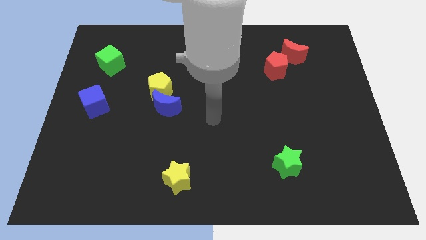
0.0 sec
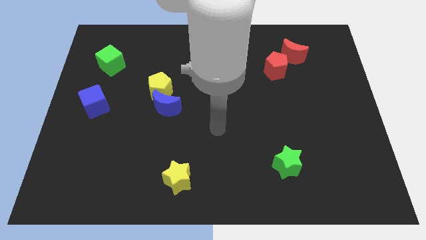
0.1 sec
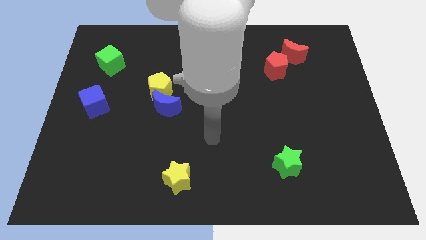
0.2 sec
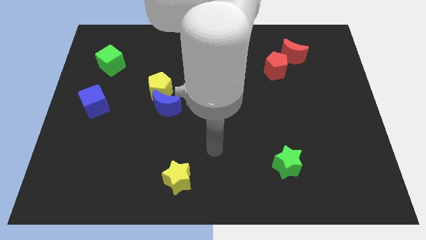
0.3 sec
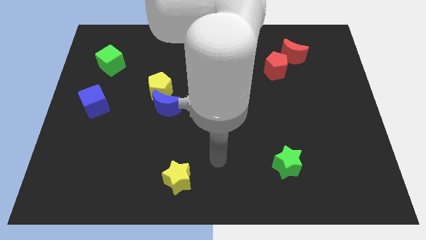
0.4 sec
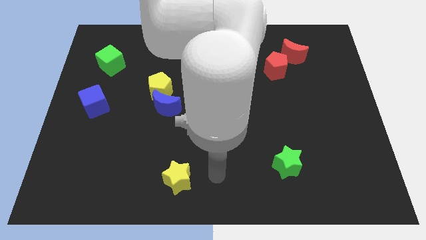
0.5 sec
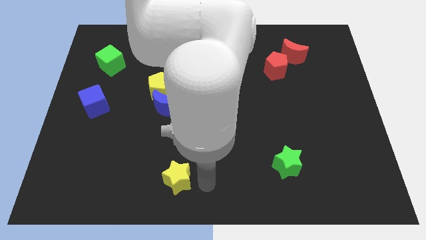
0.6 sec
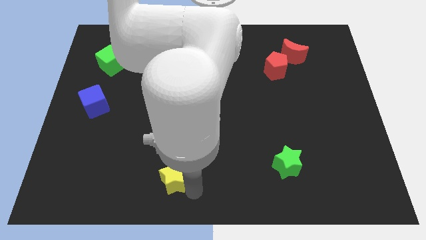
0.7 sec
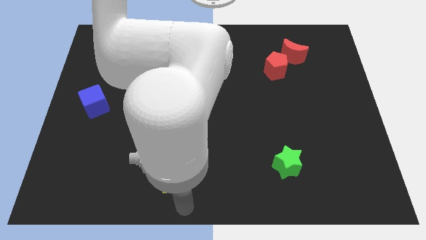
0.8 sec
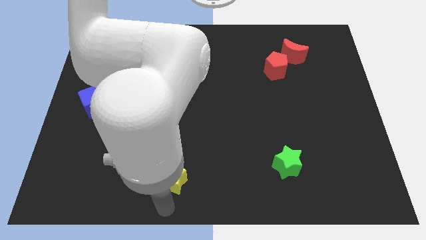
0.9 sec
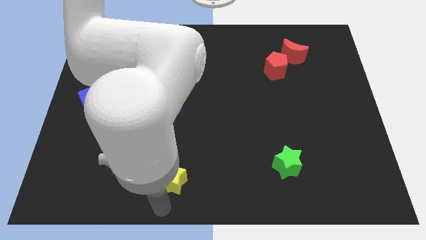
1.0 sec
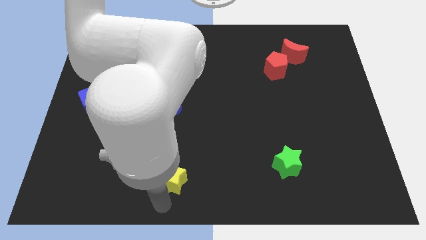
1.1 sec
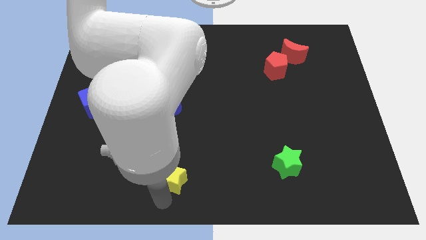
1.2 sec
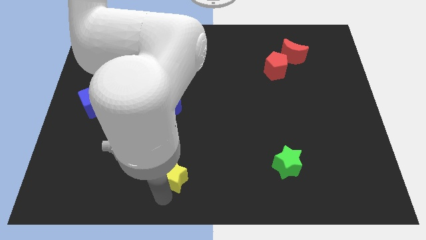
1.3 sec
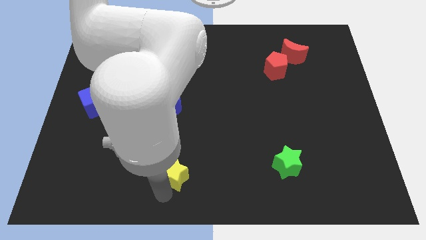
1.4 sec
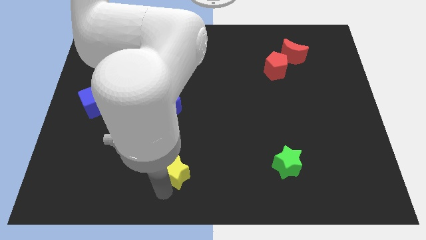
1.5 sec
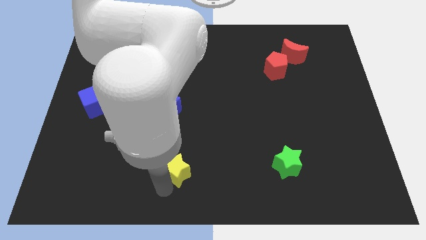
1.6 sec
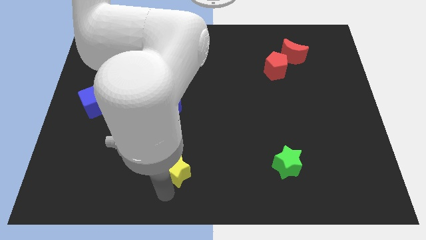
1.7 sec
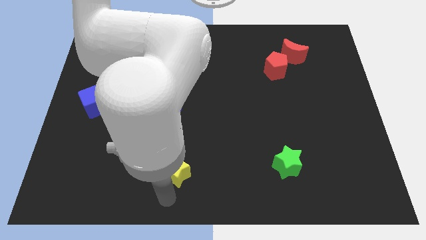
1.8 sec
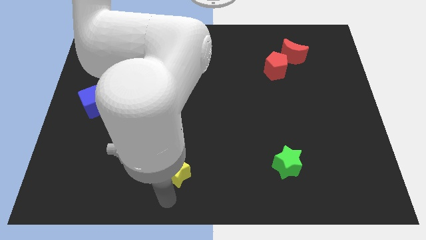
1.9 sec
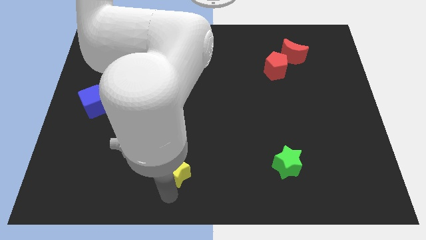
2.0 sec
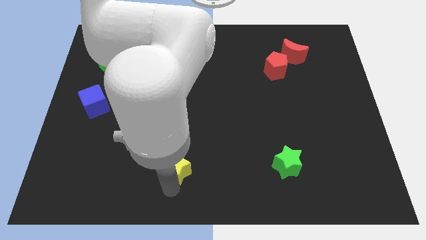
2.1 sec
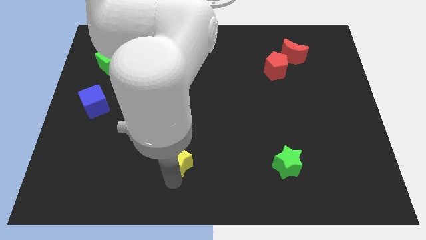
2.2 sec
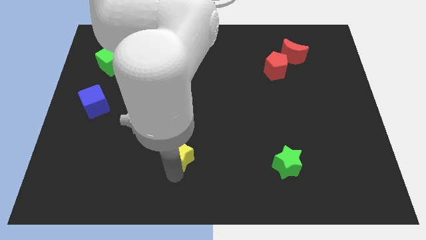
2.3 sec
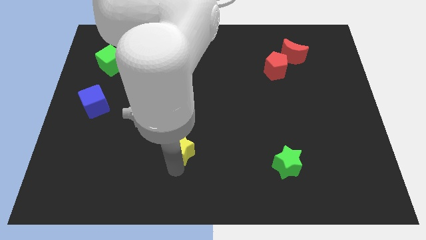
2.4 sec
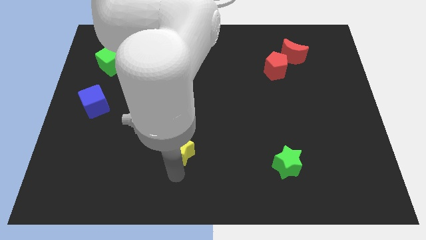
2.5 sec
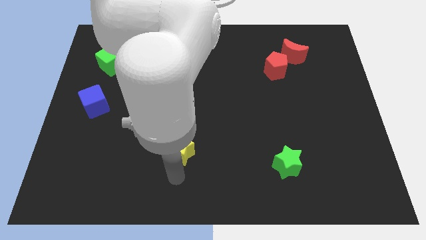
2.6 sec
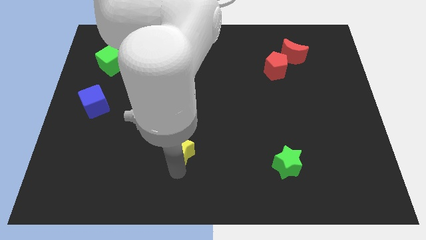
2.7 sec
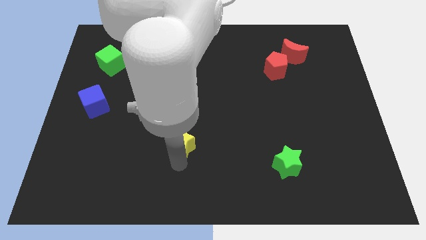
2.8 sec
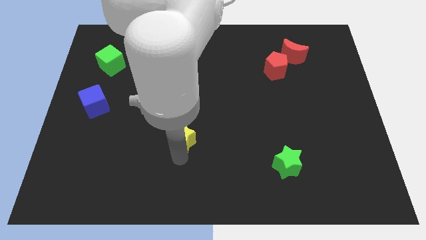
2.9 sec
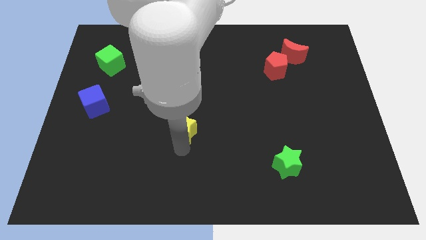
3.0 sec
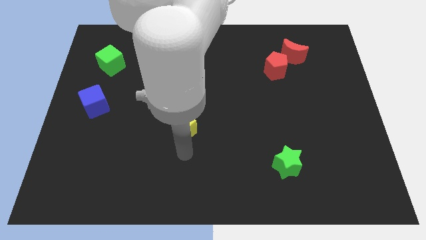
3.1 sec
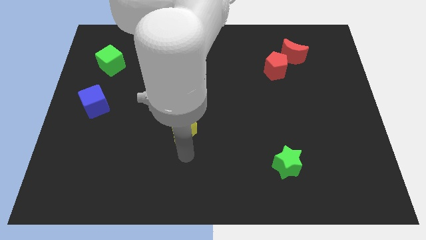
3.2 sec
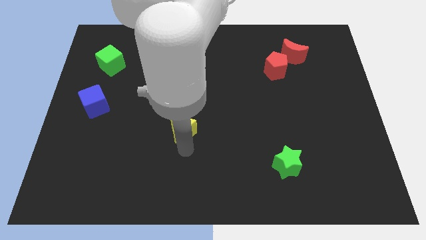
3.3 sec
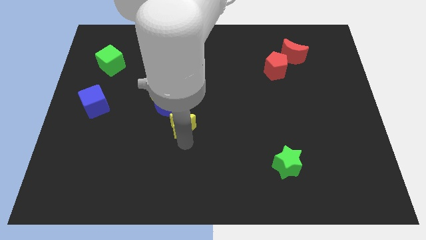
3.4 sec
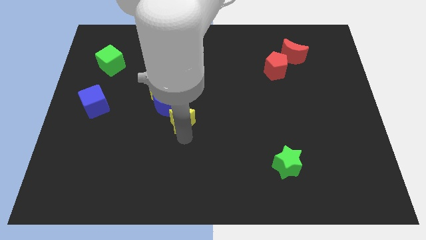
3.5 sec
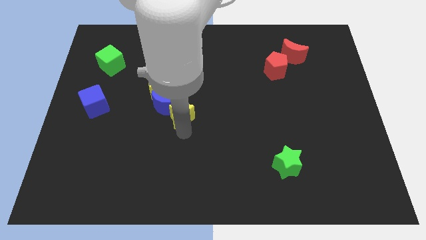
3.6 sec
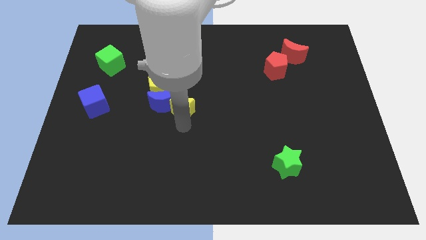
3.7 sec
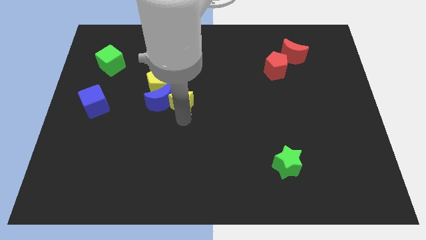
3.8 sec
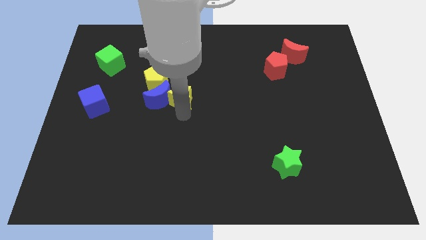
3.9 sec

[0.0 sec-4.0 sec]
move the yellow star upwards

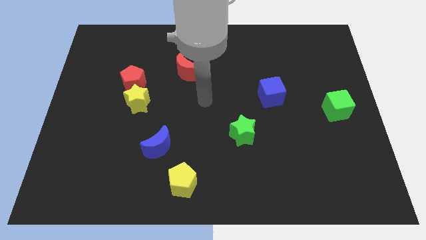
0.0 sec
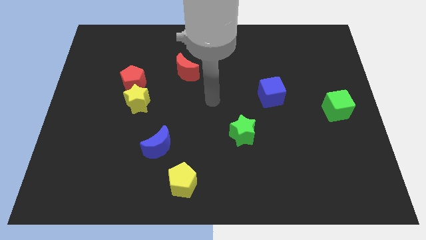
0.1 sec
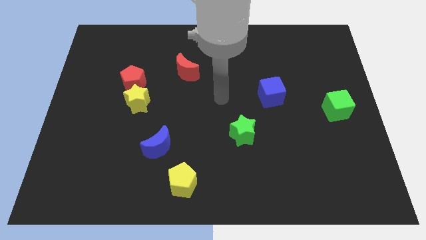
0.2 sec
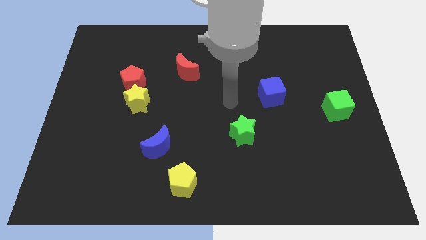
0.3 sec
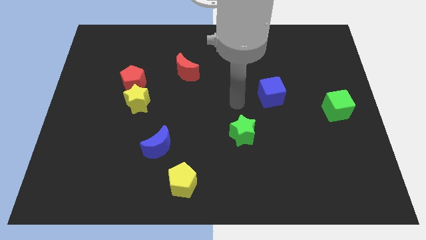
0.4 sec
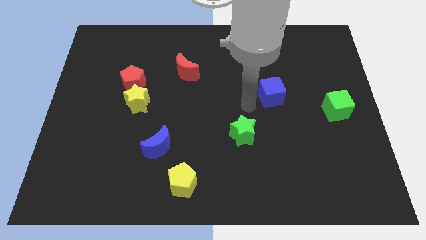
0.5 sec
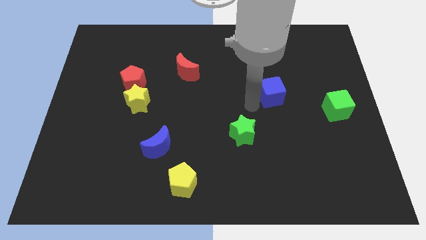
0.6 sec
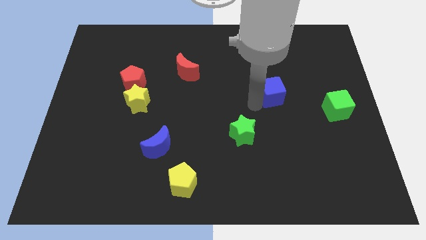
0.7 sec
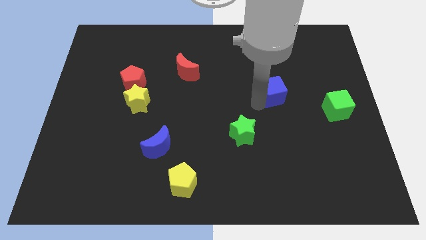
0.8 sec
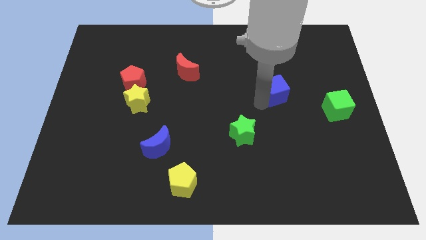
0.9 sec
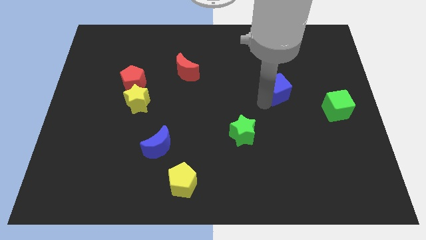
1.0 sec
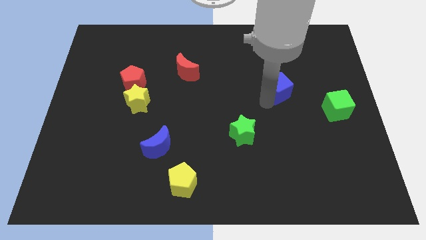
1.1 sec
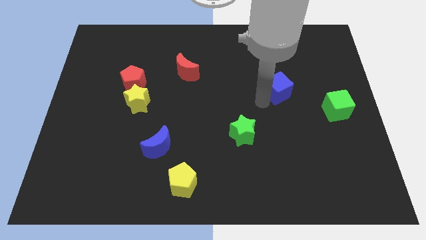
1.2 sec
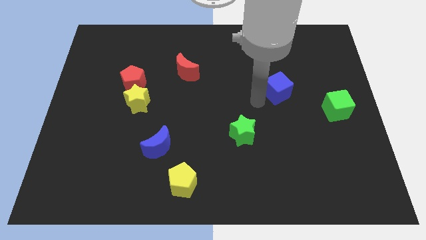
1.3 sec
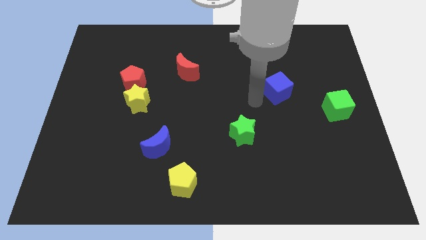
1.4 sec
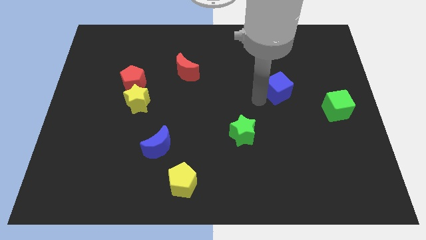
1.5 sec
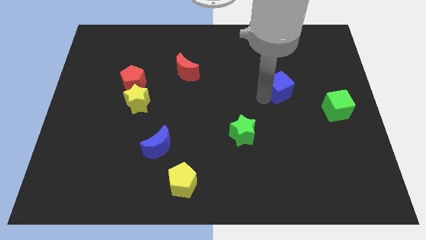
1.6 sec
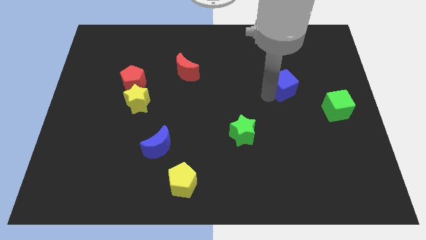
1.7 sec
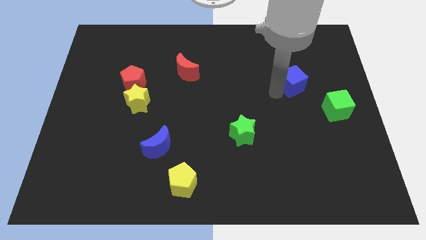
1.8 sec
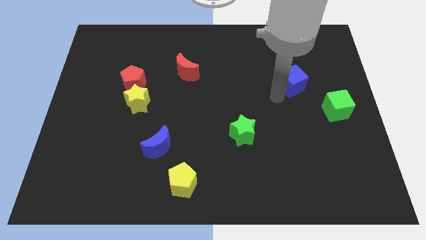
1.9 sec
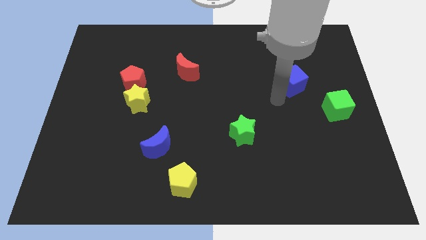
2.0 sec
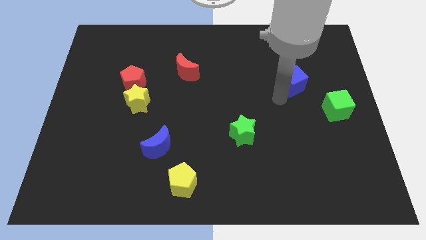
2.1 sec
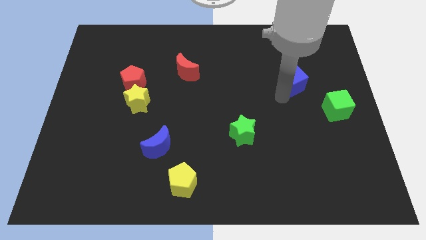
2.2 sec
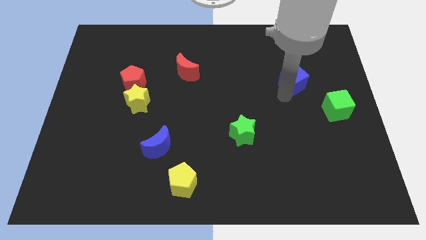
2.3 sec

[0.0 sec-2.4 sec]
slide the blue cube diagonally up and to the right a little bit

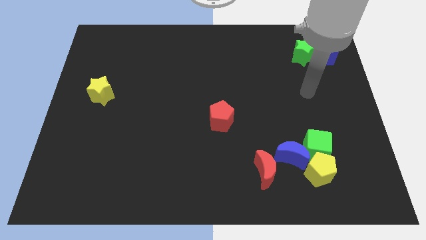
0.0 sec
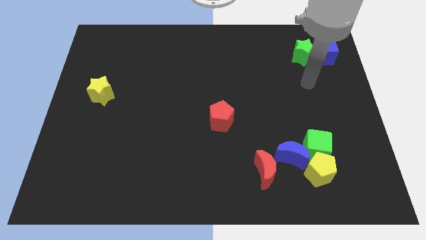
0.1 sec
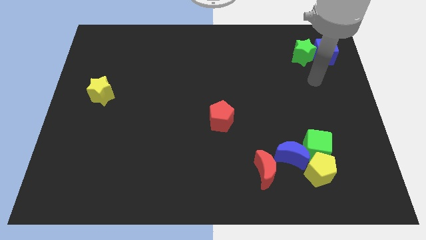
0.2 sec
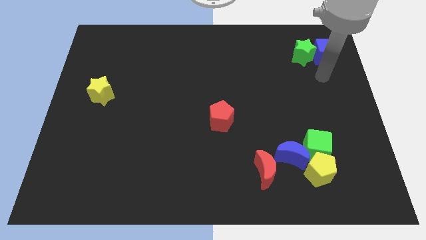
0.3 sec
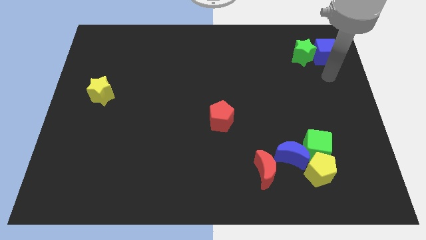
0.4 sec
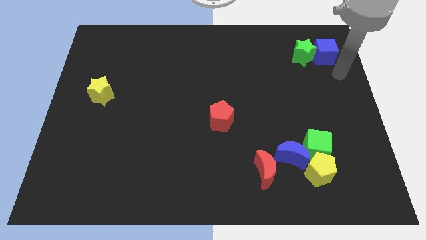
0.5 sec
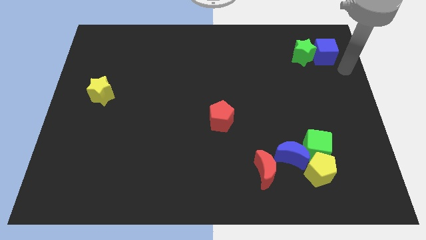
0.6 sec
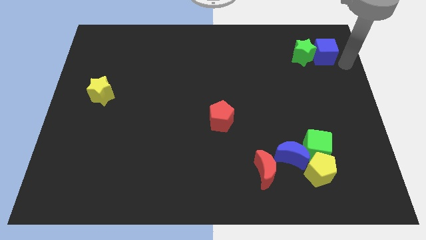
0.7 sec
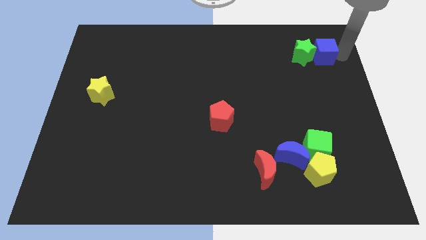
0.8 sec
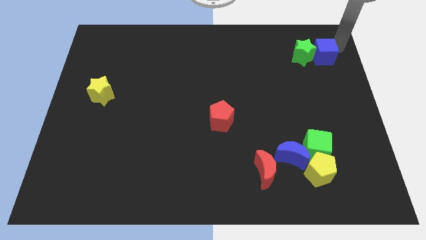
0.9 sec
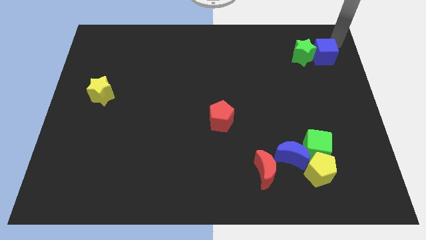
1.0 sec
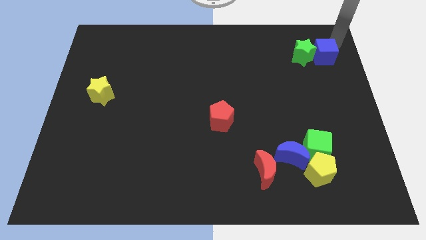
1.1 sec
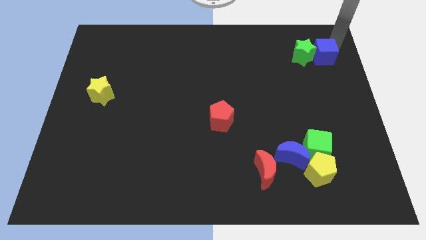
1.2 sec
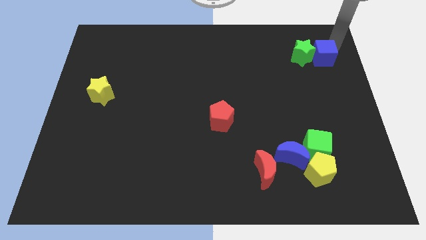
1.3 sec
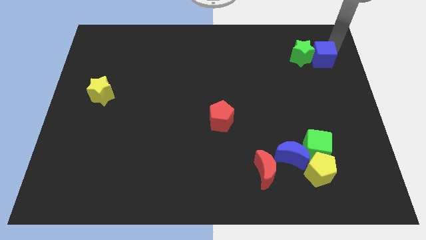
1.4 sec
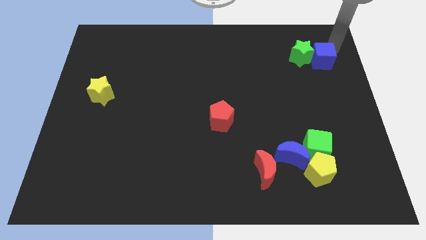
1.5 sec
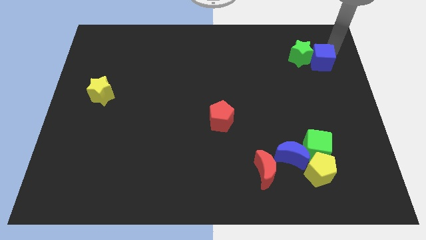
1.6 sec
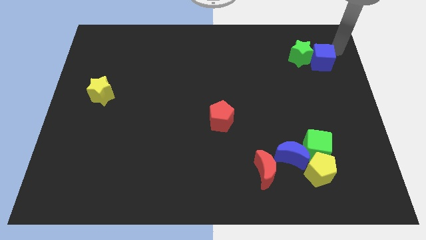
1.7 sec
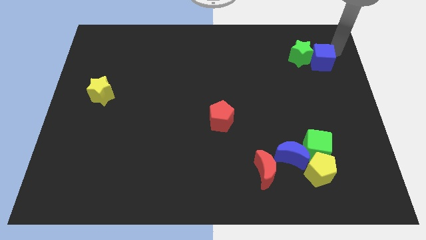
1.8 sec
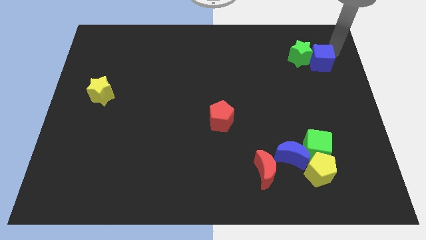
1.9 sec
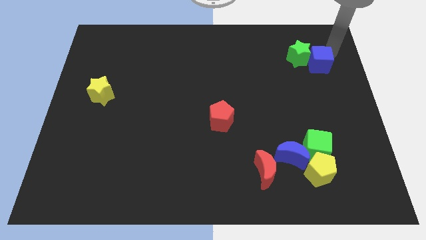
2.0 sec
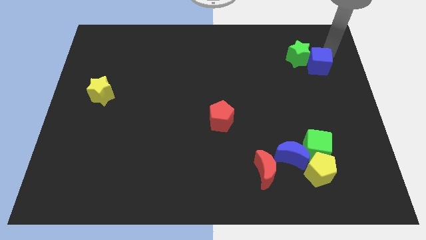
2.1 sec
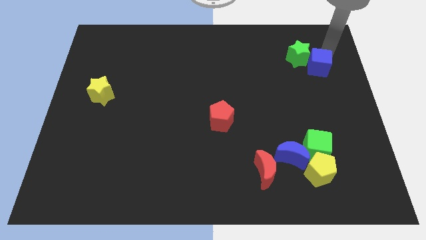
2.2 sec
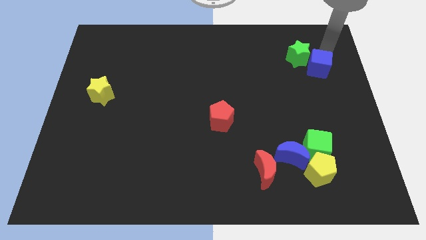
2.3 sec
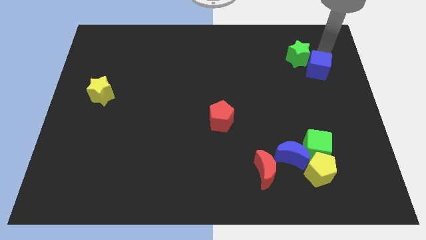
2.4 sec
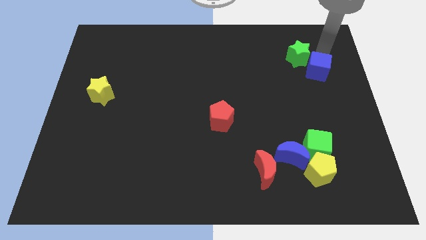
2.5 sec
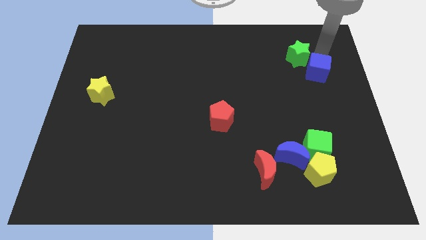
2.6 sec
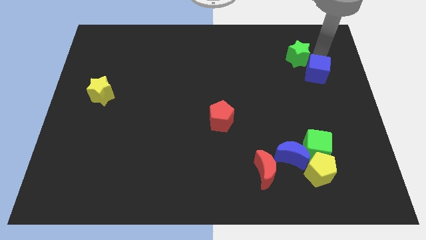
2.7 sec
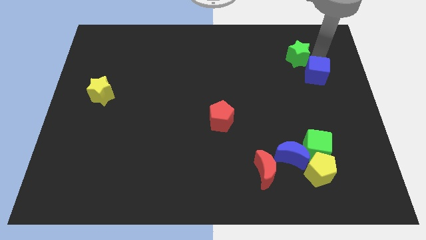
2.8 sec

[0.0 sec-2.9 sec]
move the blue cube diagonally downwards and left a bit
